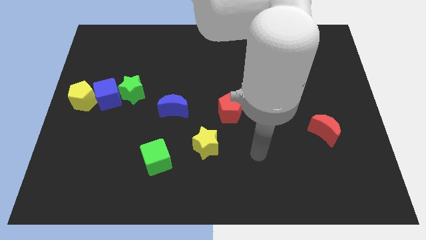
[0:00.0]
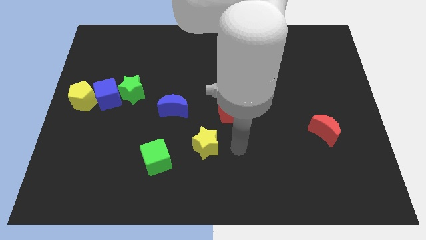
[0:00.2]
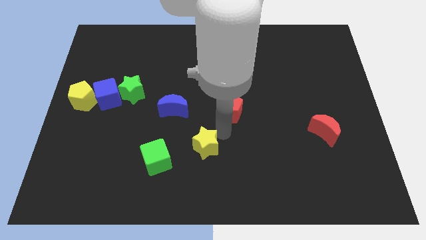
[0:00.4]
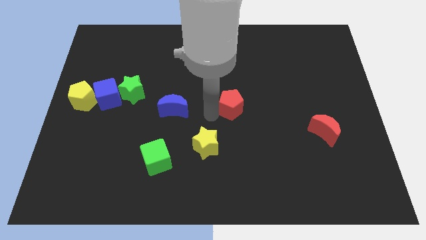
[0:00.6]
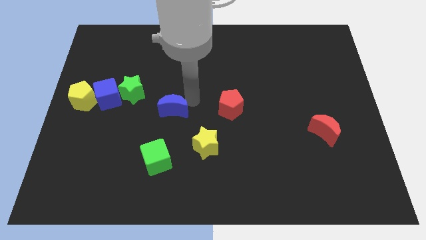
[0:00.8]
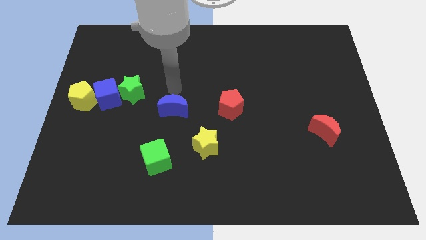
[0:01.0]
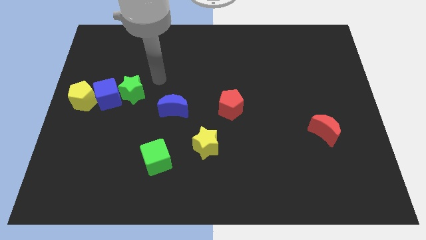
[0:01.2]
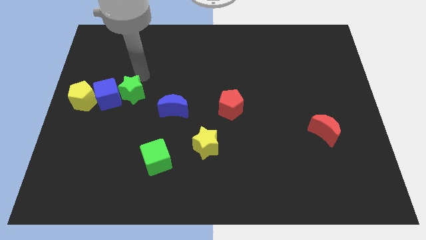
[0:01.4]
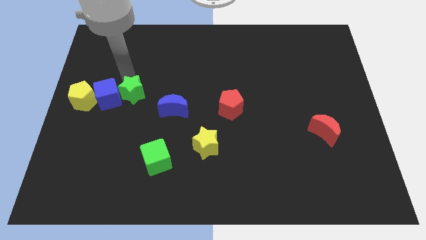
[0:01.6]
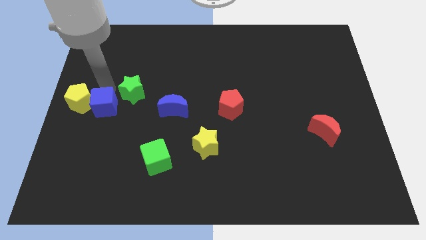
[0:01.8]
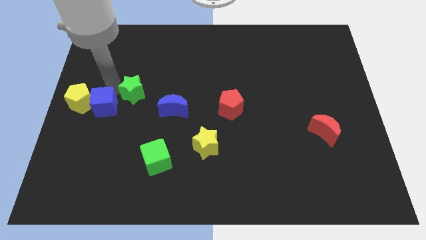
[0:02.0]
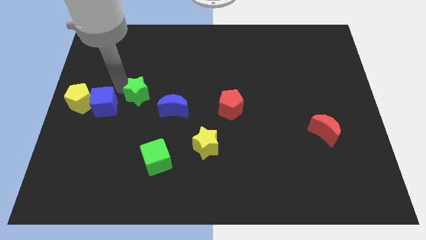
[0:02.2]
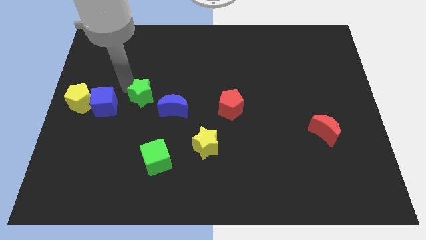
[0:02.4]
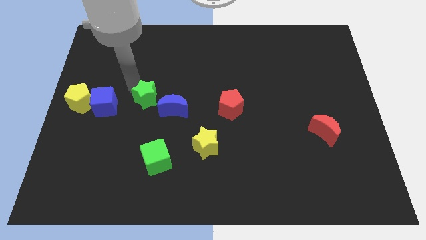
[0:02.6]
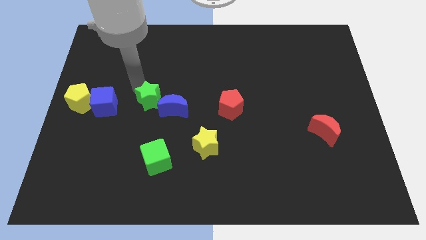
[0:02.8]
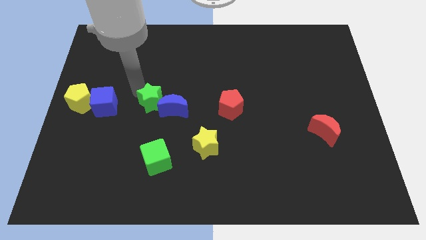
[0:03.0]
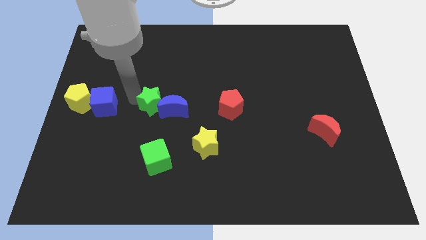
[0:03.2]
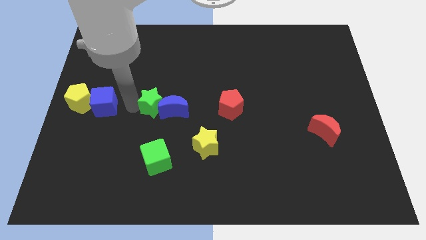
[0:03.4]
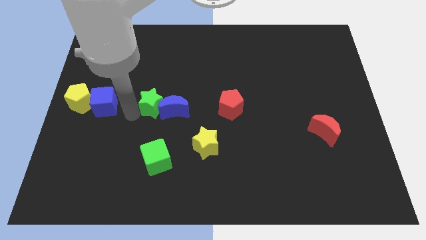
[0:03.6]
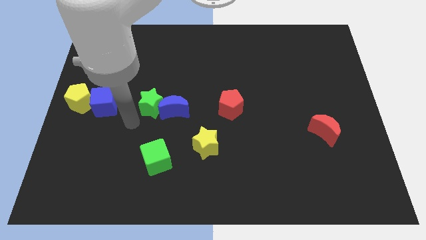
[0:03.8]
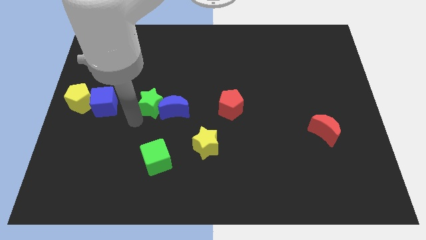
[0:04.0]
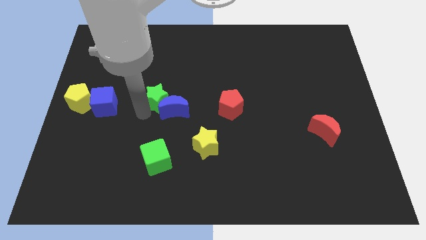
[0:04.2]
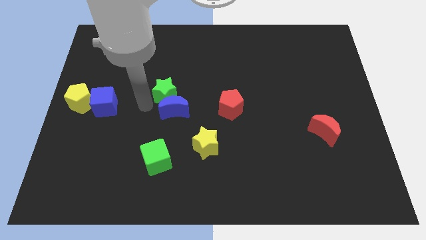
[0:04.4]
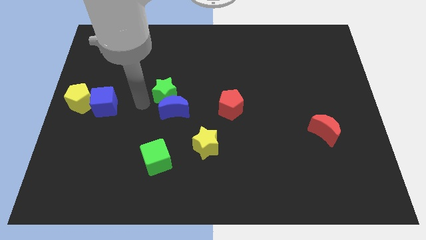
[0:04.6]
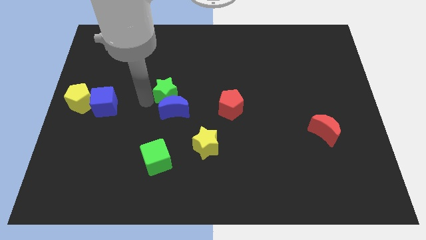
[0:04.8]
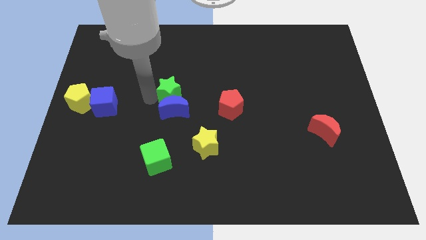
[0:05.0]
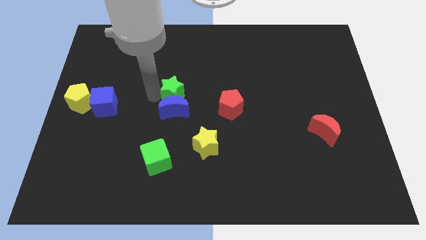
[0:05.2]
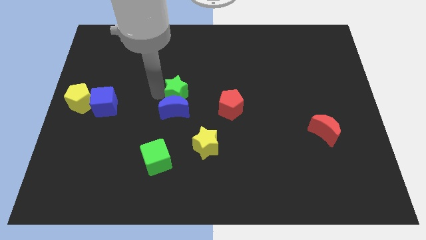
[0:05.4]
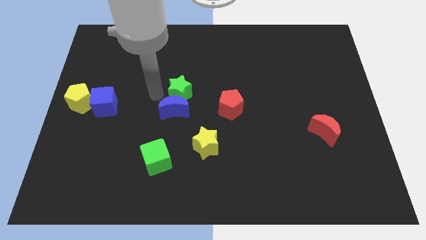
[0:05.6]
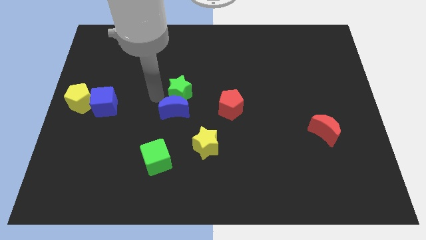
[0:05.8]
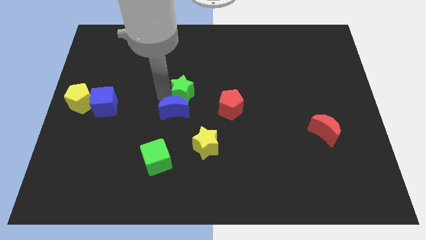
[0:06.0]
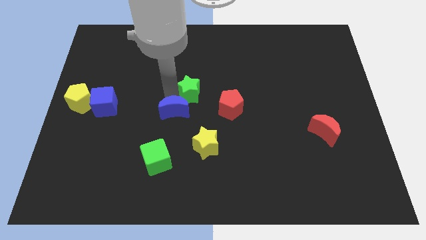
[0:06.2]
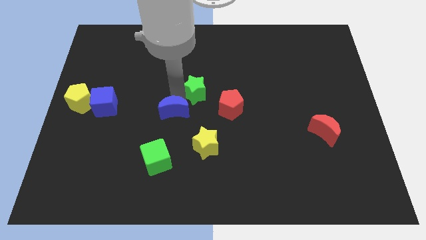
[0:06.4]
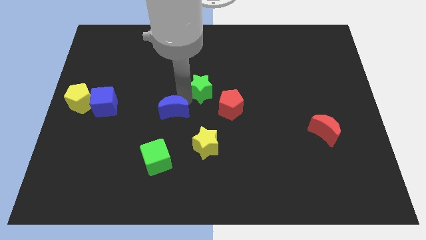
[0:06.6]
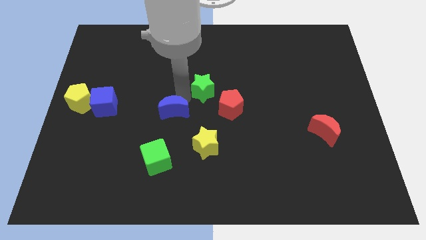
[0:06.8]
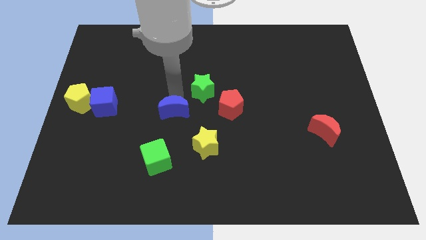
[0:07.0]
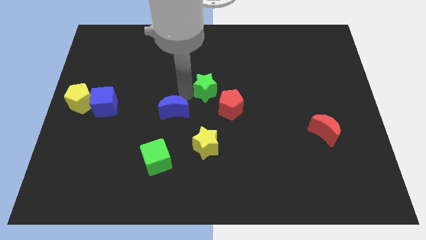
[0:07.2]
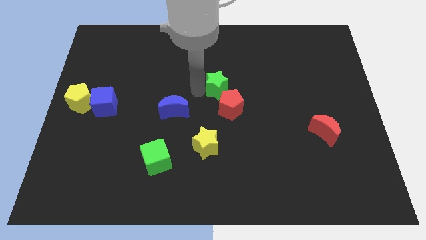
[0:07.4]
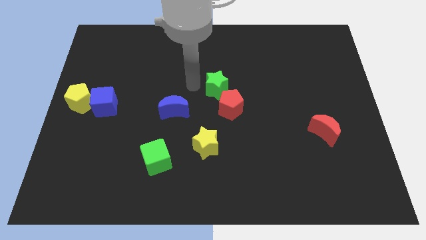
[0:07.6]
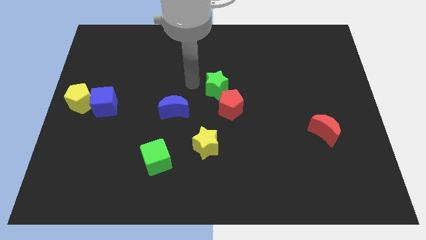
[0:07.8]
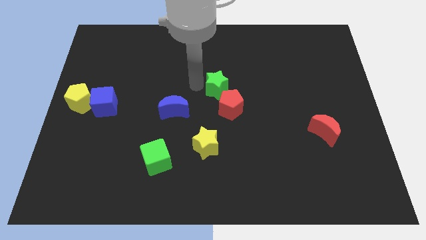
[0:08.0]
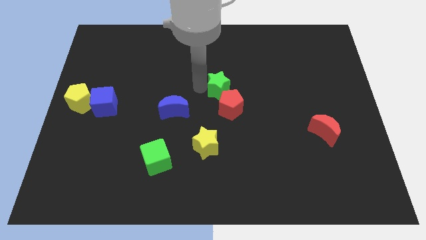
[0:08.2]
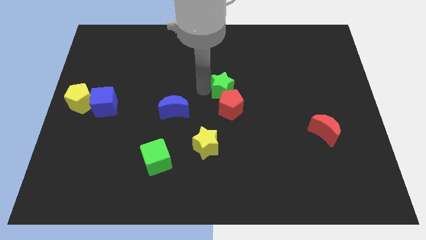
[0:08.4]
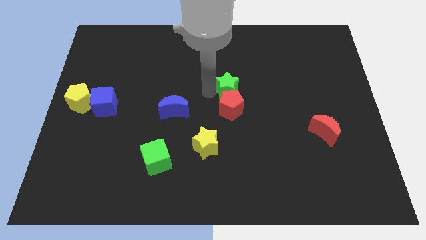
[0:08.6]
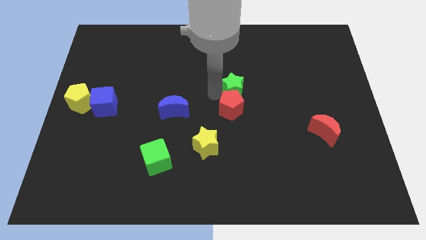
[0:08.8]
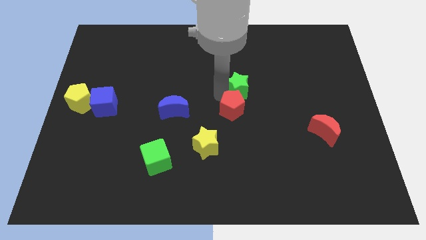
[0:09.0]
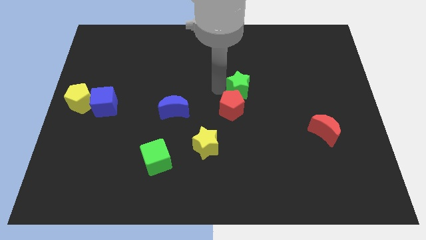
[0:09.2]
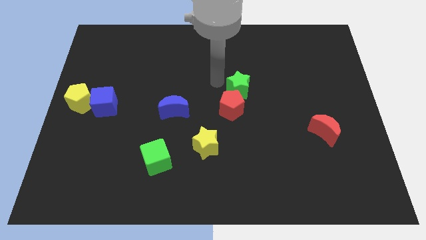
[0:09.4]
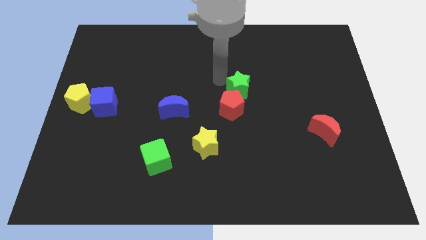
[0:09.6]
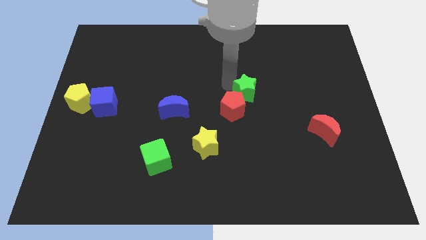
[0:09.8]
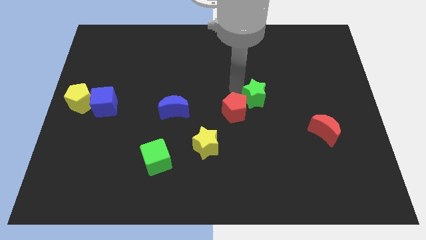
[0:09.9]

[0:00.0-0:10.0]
put the green star to the right side of the red pentagon

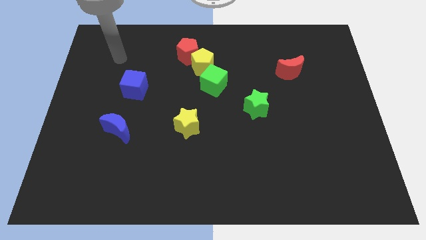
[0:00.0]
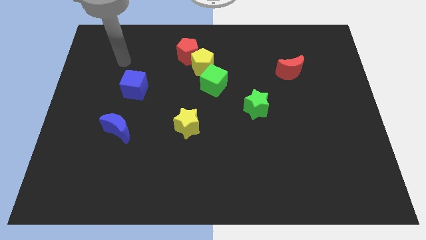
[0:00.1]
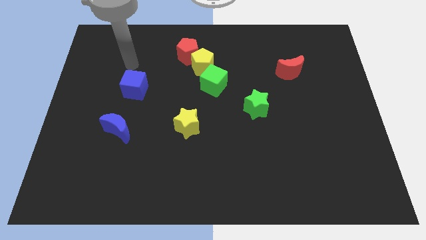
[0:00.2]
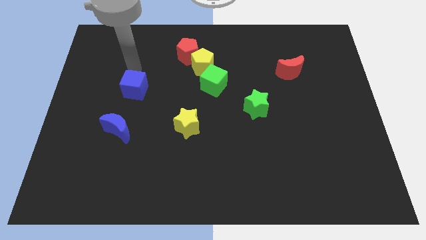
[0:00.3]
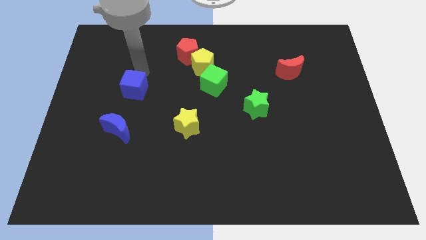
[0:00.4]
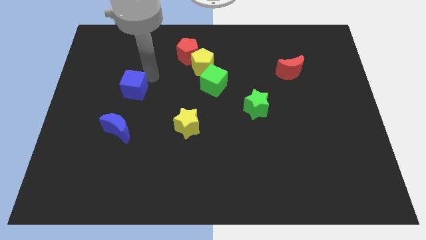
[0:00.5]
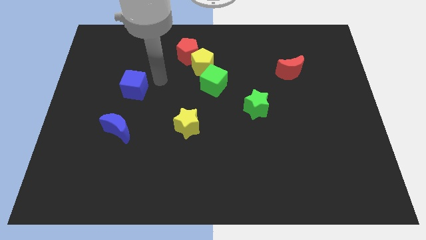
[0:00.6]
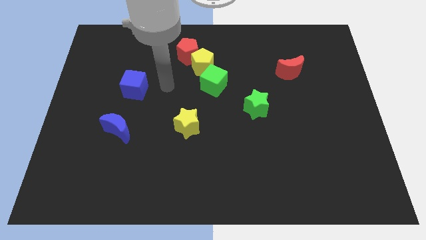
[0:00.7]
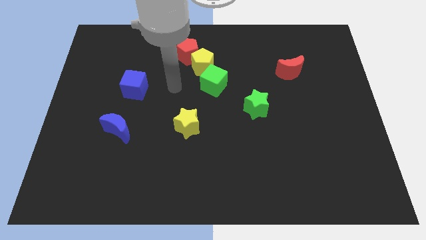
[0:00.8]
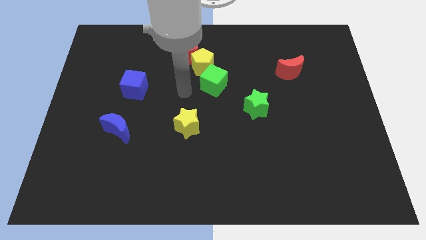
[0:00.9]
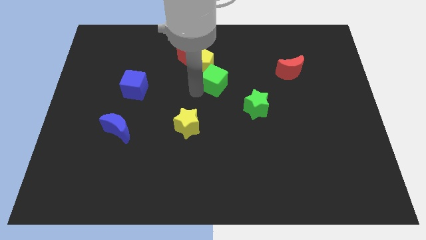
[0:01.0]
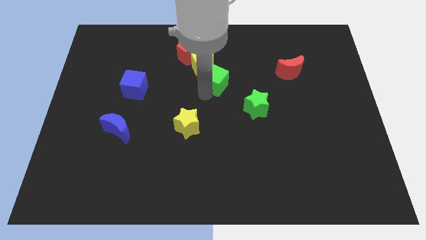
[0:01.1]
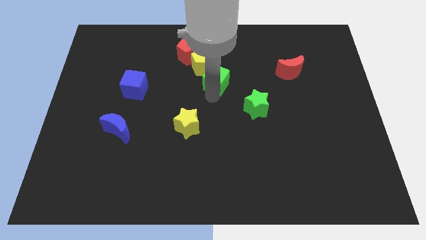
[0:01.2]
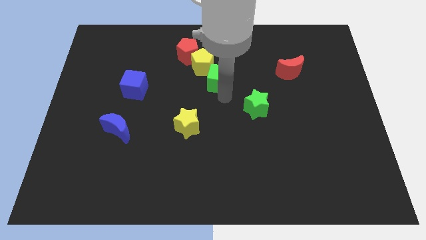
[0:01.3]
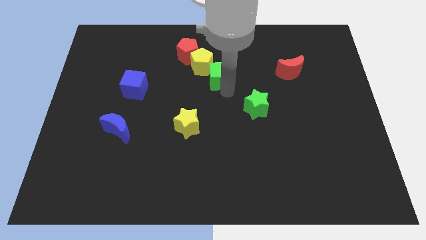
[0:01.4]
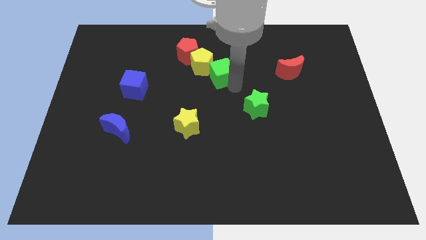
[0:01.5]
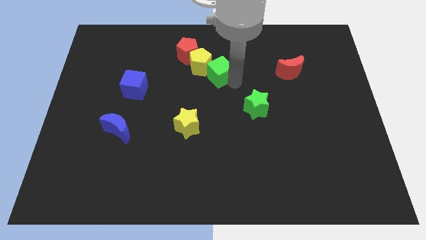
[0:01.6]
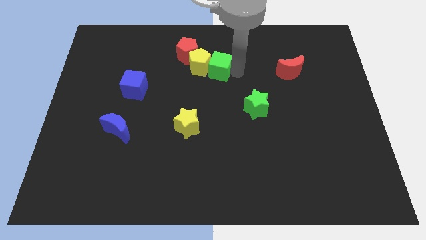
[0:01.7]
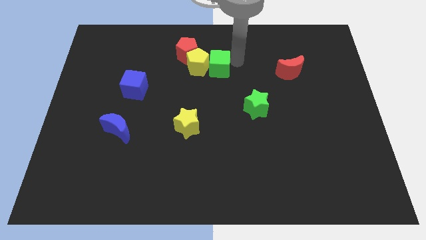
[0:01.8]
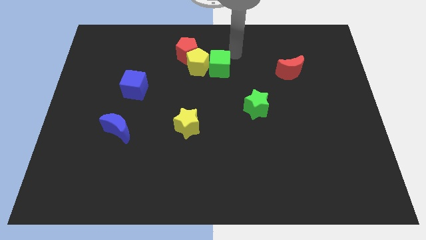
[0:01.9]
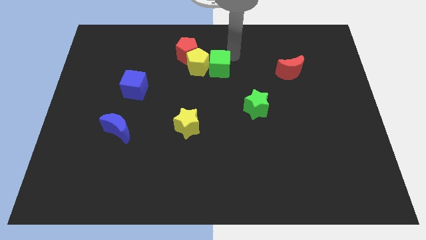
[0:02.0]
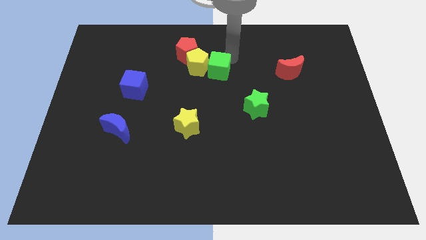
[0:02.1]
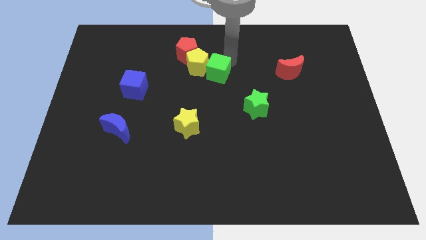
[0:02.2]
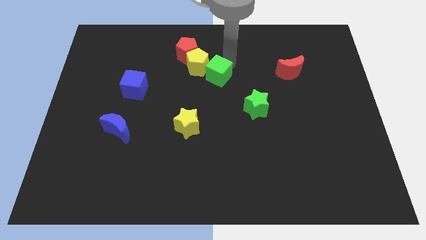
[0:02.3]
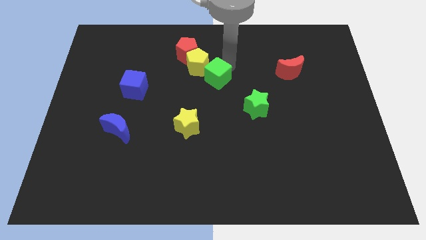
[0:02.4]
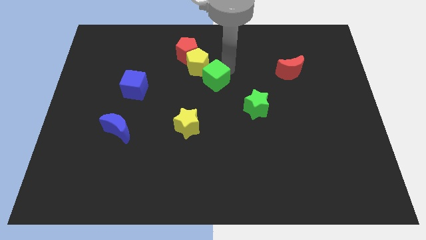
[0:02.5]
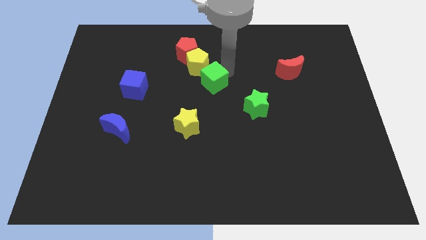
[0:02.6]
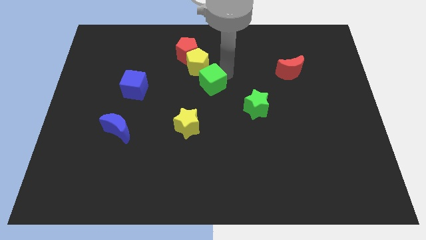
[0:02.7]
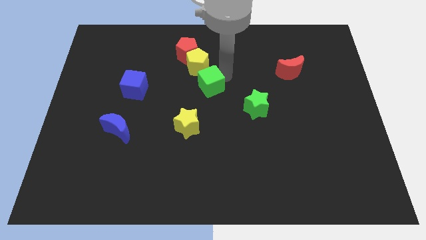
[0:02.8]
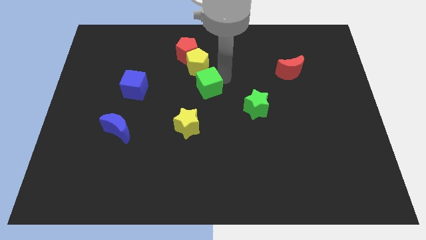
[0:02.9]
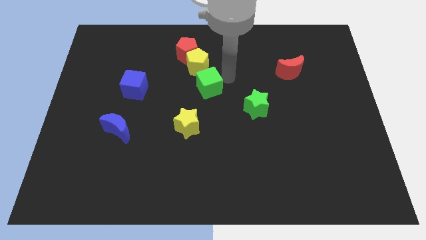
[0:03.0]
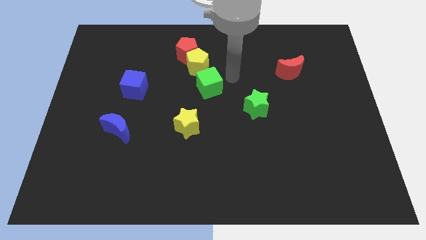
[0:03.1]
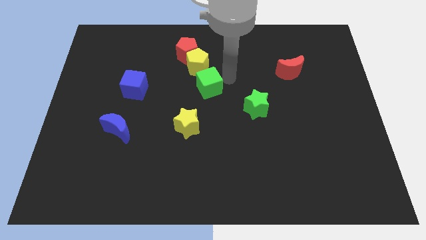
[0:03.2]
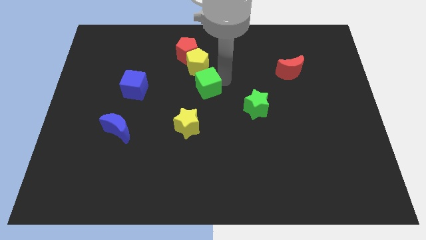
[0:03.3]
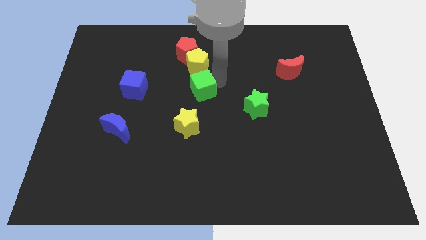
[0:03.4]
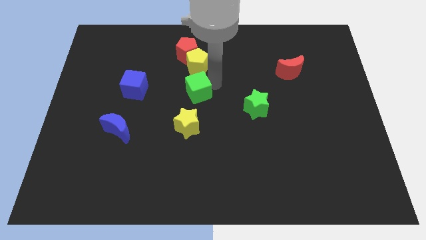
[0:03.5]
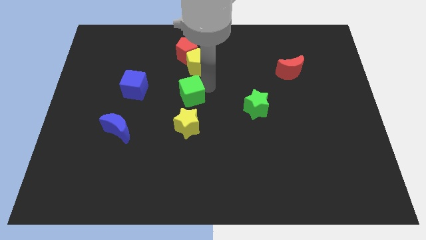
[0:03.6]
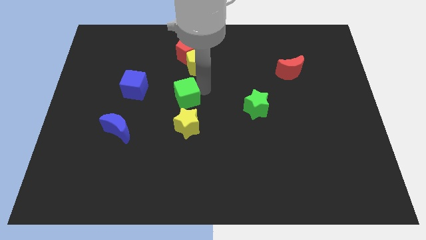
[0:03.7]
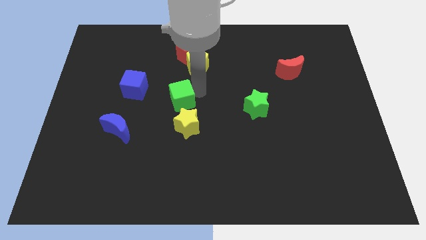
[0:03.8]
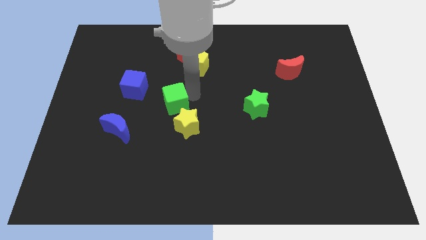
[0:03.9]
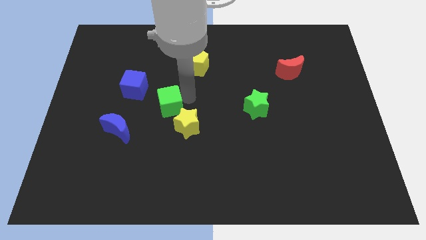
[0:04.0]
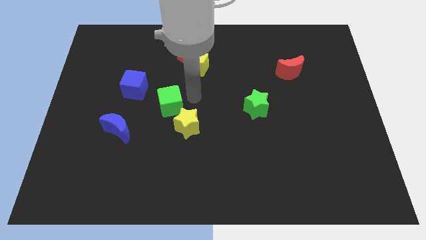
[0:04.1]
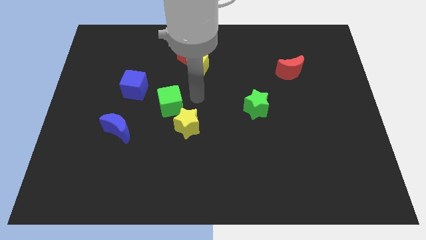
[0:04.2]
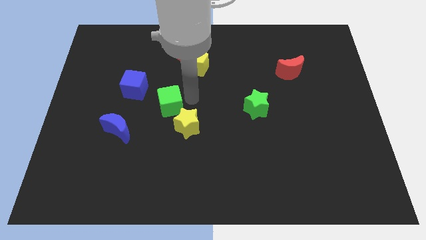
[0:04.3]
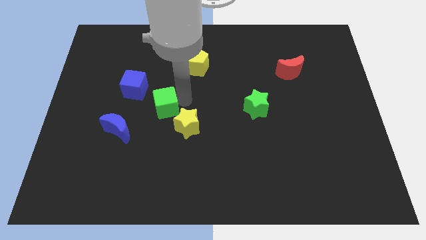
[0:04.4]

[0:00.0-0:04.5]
slide the green cube diagonally up and to the right of the blue moon
